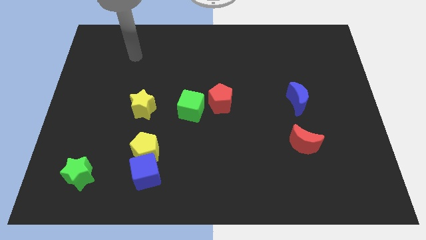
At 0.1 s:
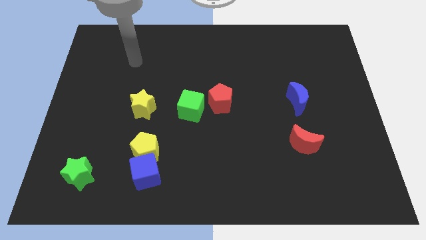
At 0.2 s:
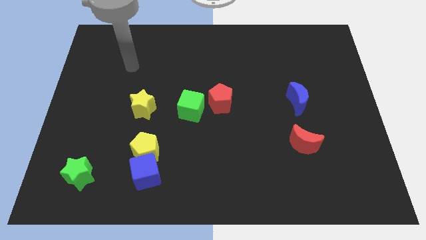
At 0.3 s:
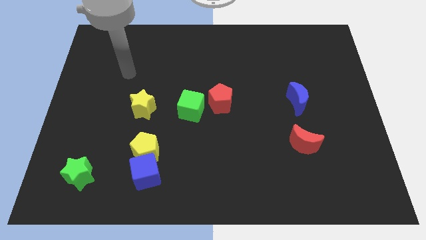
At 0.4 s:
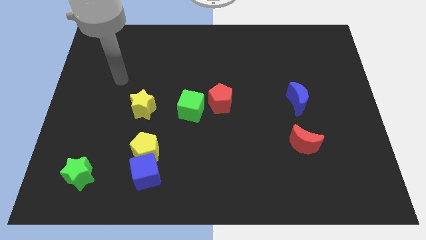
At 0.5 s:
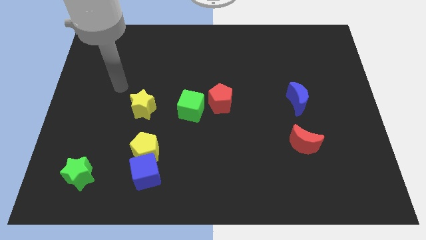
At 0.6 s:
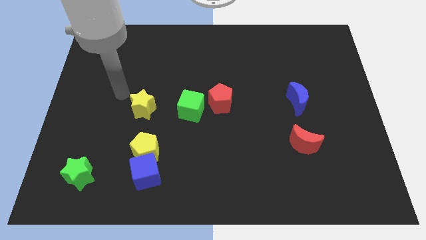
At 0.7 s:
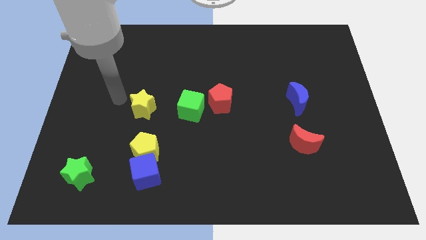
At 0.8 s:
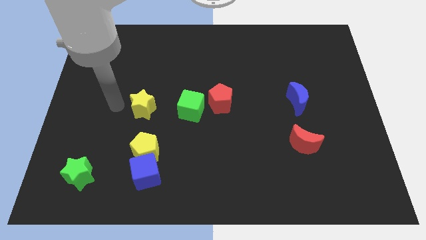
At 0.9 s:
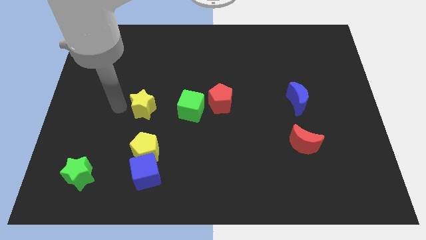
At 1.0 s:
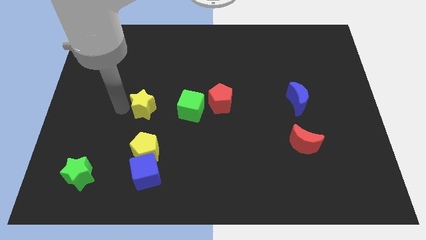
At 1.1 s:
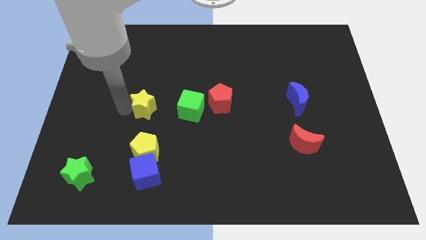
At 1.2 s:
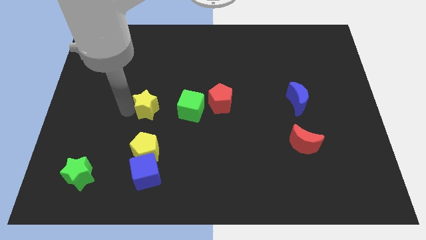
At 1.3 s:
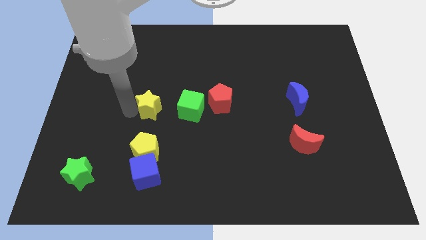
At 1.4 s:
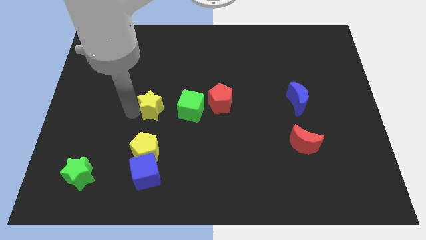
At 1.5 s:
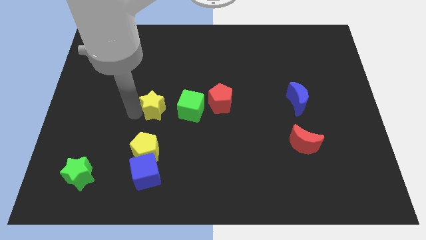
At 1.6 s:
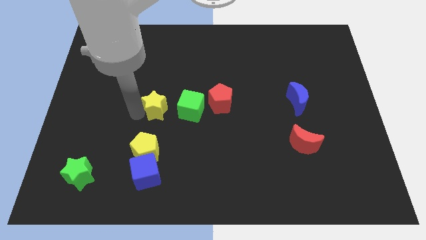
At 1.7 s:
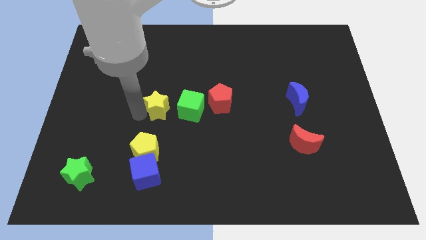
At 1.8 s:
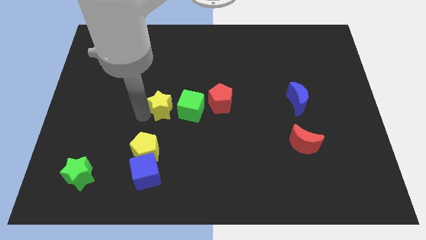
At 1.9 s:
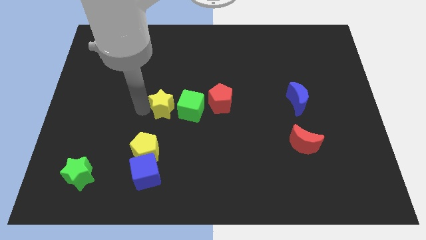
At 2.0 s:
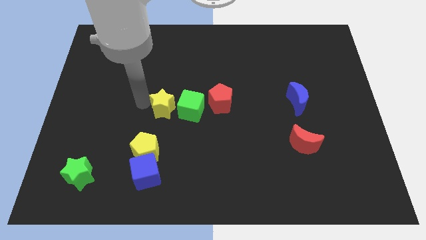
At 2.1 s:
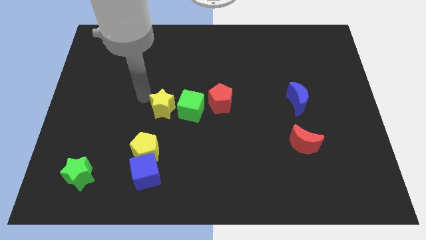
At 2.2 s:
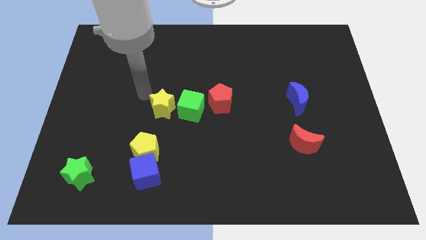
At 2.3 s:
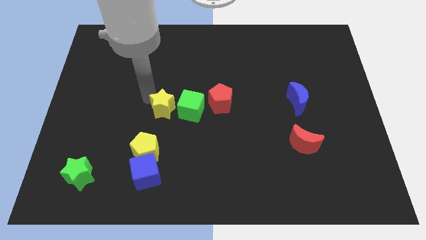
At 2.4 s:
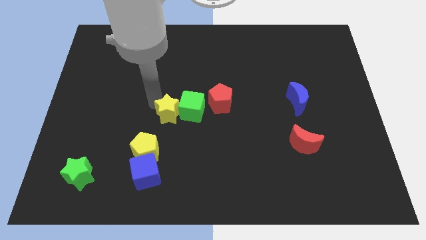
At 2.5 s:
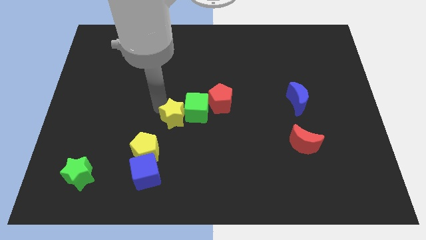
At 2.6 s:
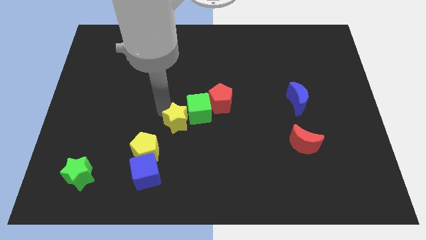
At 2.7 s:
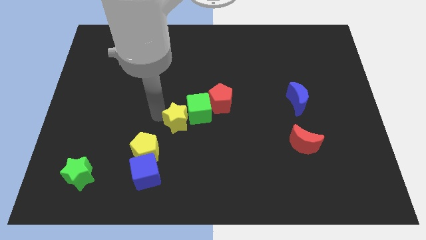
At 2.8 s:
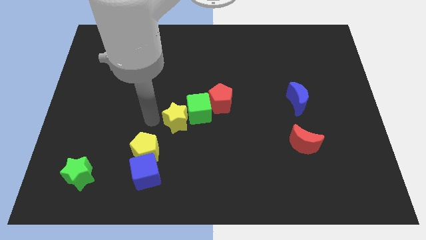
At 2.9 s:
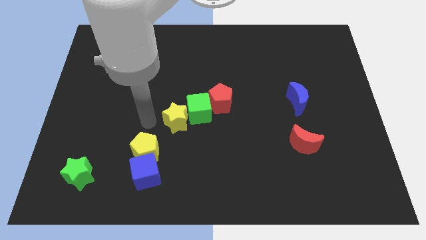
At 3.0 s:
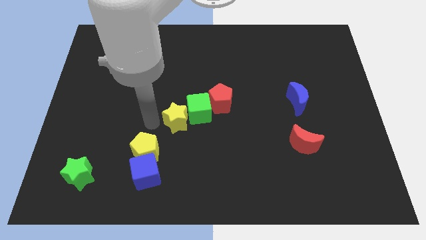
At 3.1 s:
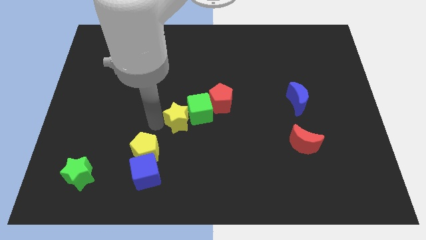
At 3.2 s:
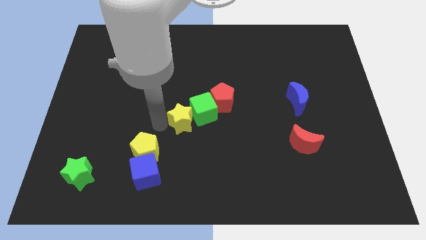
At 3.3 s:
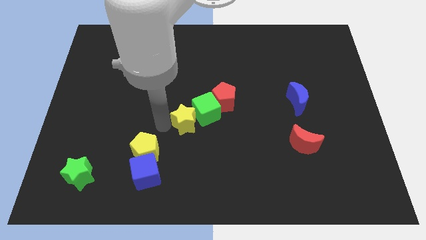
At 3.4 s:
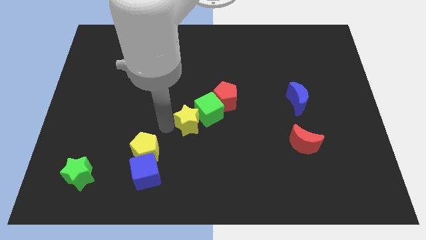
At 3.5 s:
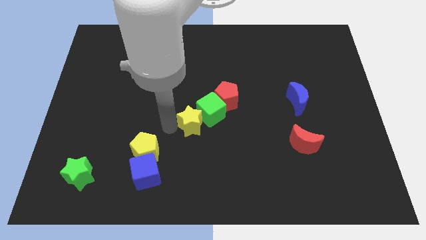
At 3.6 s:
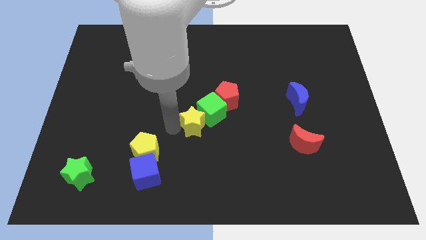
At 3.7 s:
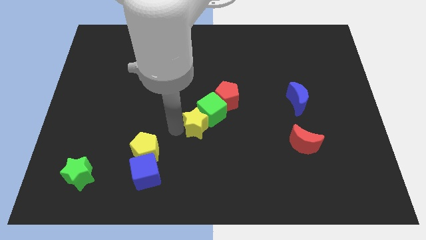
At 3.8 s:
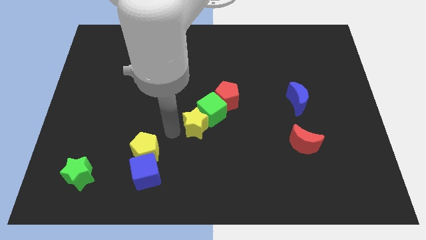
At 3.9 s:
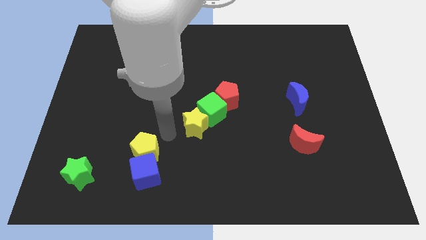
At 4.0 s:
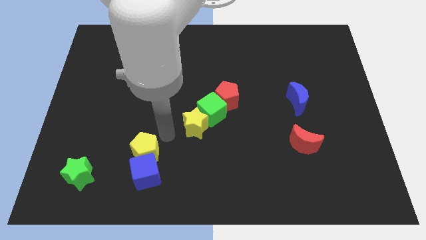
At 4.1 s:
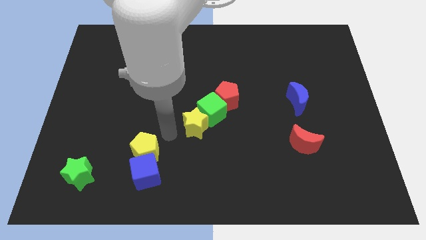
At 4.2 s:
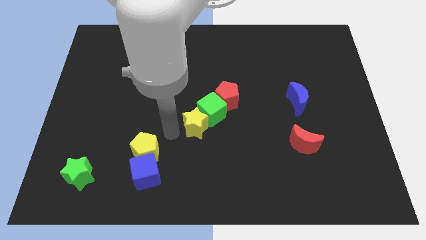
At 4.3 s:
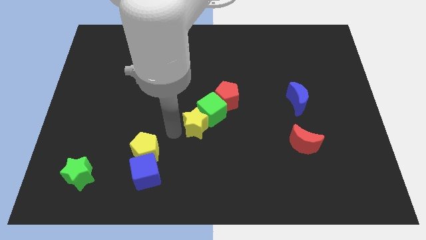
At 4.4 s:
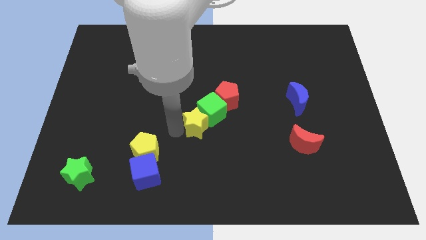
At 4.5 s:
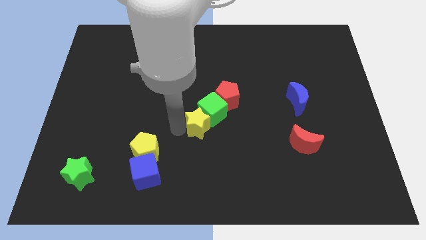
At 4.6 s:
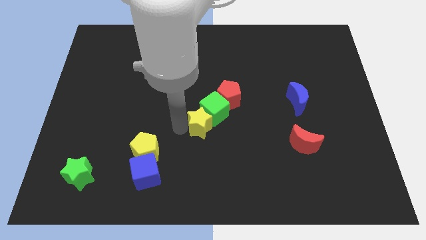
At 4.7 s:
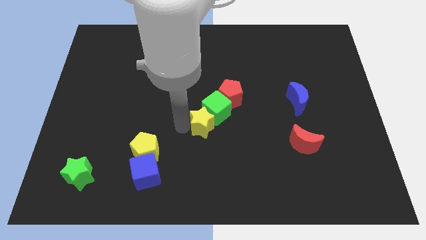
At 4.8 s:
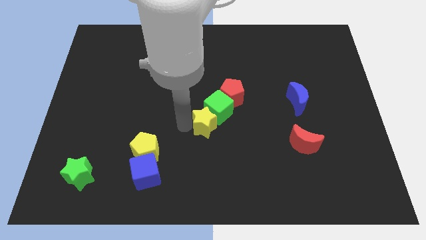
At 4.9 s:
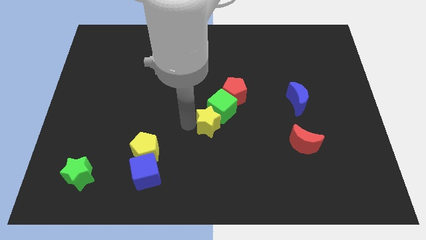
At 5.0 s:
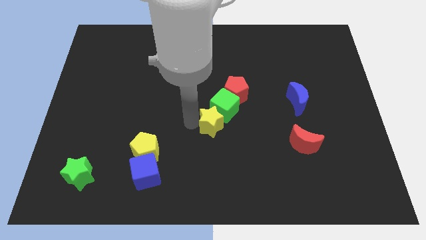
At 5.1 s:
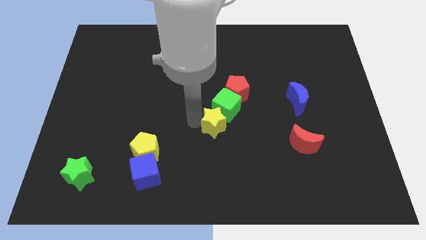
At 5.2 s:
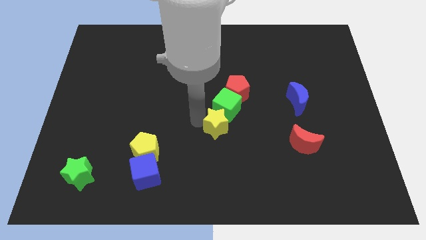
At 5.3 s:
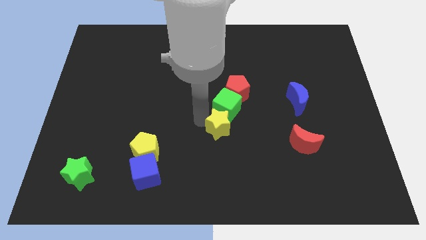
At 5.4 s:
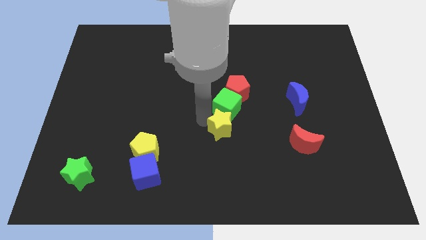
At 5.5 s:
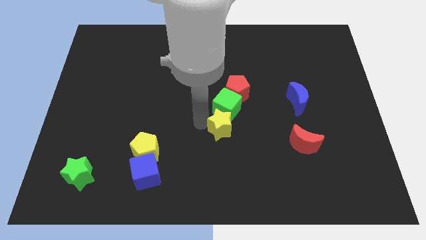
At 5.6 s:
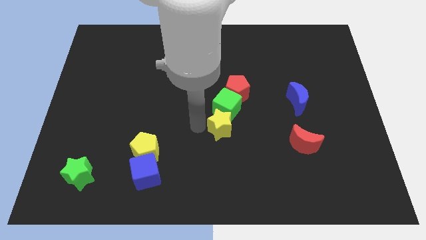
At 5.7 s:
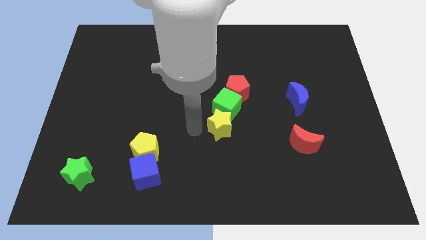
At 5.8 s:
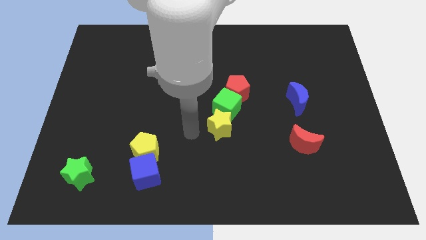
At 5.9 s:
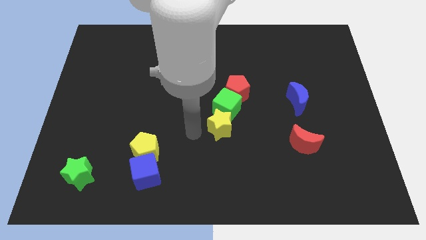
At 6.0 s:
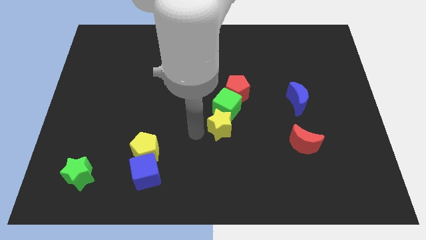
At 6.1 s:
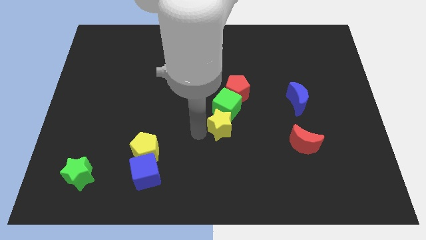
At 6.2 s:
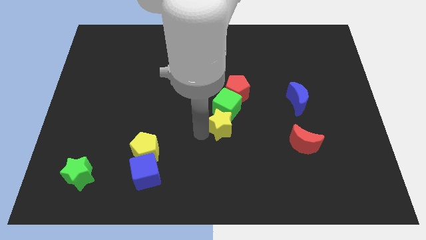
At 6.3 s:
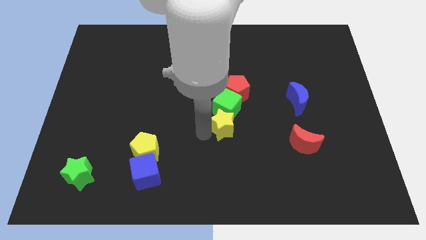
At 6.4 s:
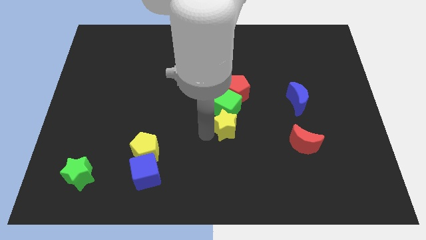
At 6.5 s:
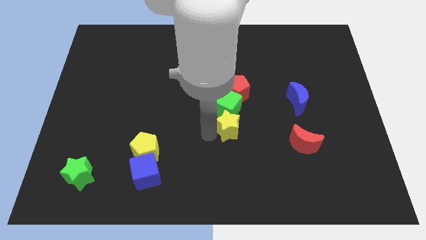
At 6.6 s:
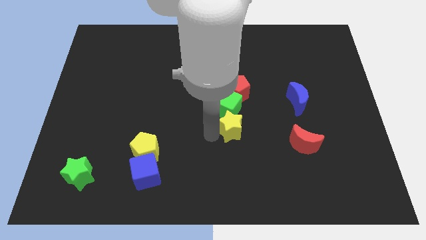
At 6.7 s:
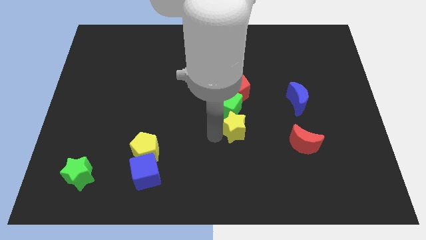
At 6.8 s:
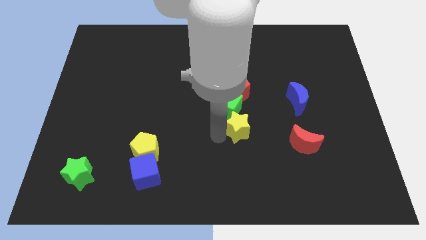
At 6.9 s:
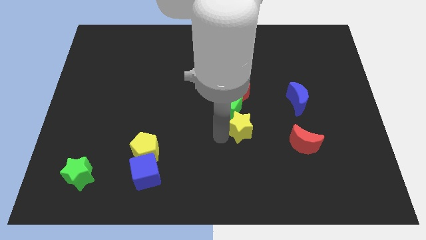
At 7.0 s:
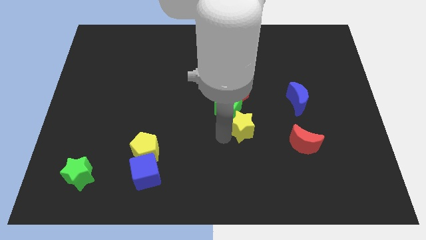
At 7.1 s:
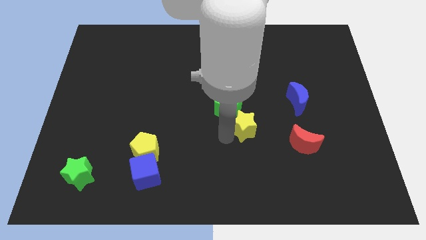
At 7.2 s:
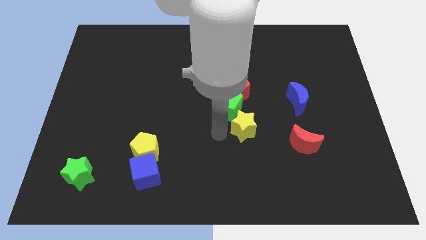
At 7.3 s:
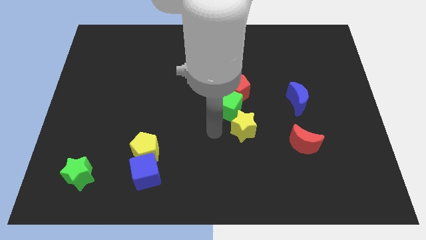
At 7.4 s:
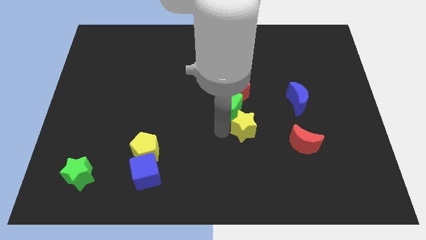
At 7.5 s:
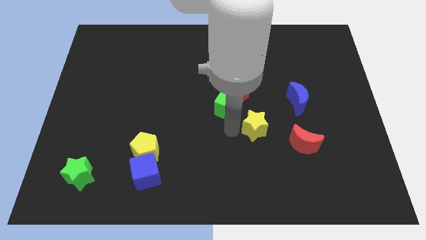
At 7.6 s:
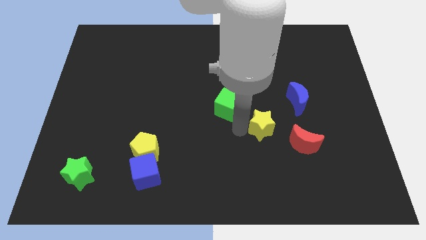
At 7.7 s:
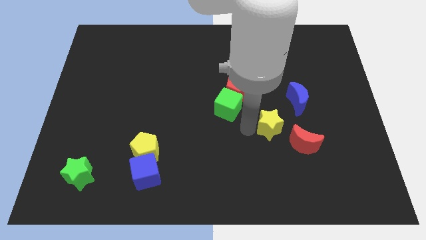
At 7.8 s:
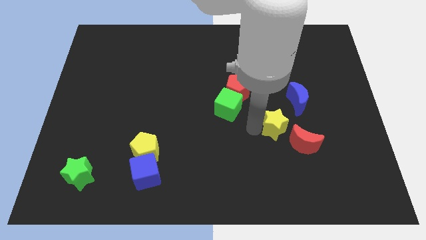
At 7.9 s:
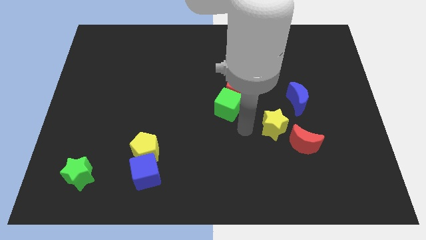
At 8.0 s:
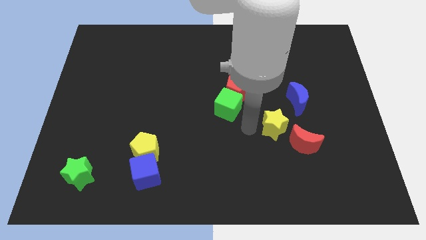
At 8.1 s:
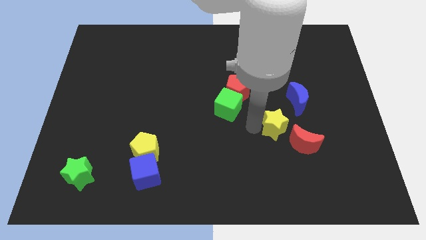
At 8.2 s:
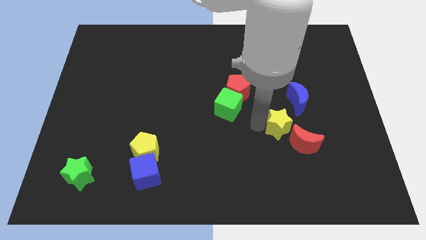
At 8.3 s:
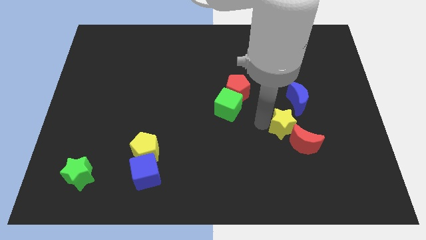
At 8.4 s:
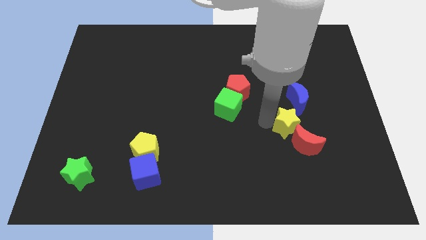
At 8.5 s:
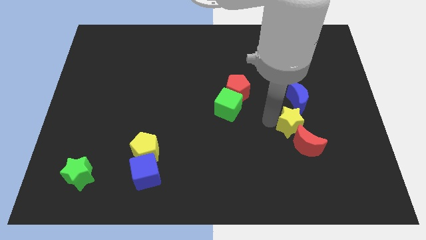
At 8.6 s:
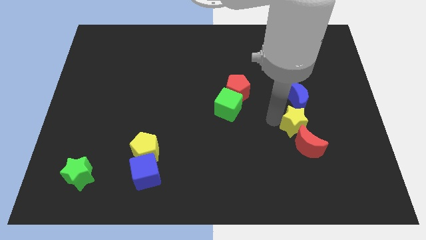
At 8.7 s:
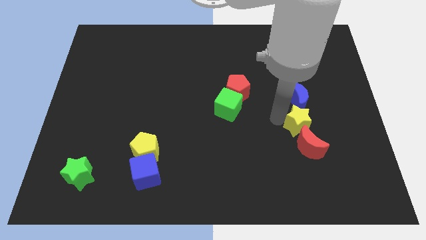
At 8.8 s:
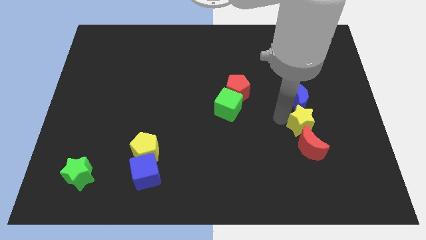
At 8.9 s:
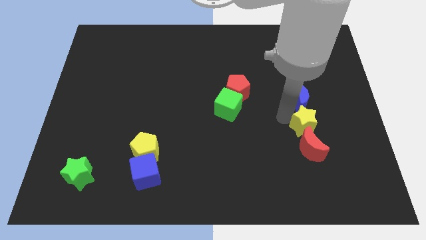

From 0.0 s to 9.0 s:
push the yellow star diagonally up and to the right of the red moon
